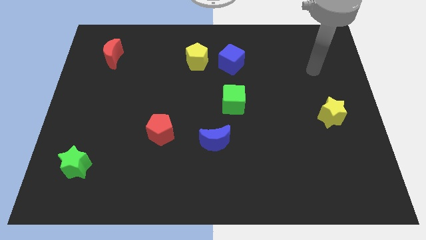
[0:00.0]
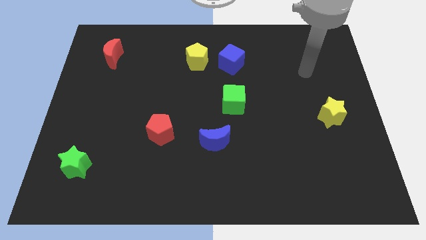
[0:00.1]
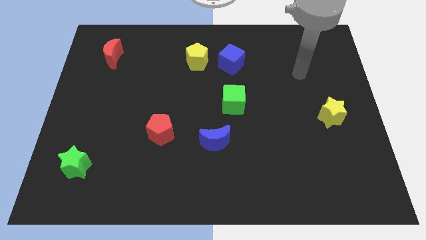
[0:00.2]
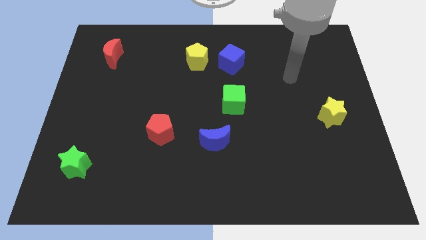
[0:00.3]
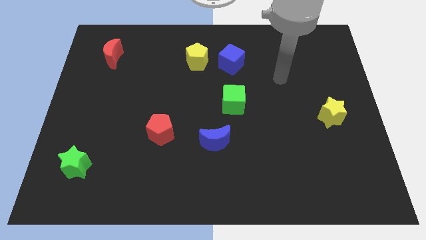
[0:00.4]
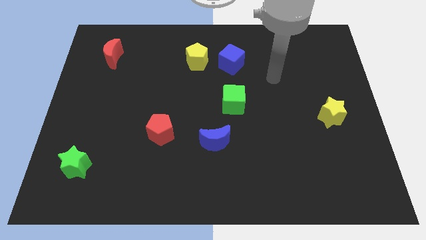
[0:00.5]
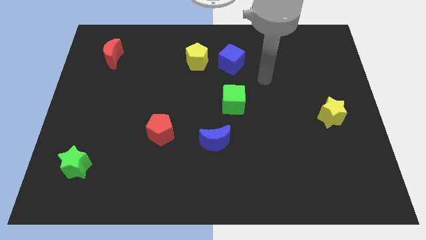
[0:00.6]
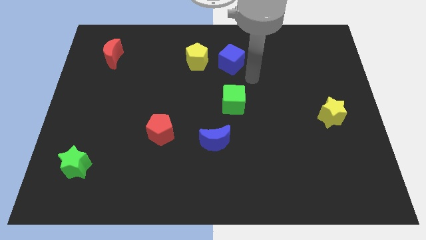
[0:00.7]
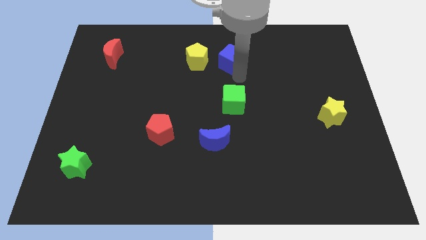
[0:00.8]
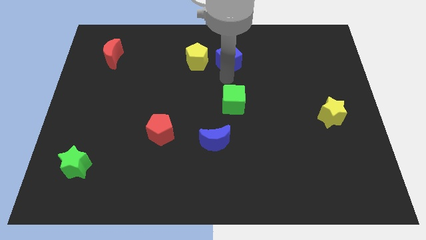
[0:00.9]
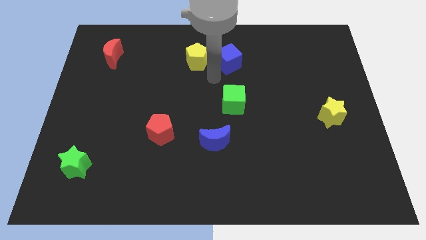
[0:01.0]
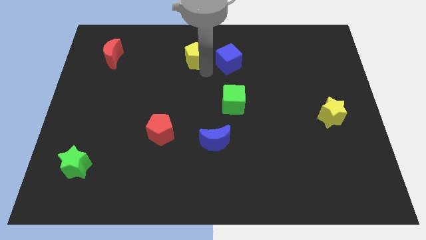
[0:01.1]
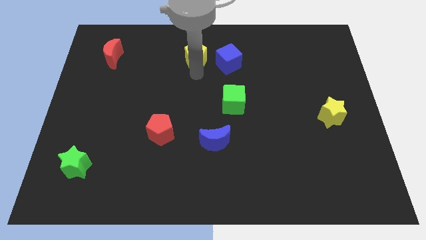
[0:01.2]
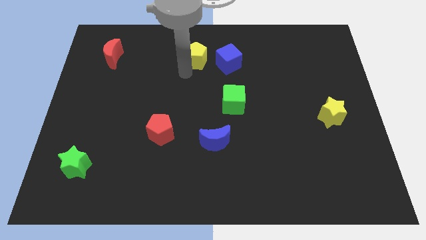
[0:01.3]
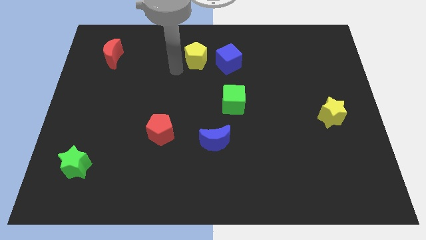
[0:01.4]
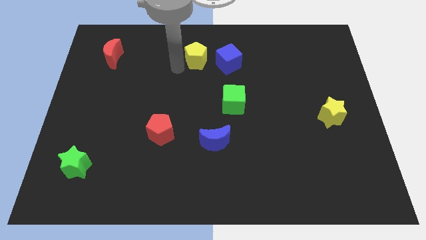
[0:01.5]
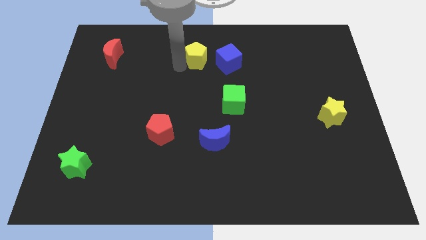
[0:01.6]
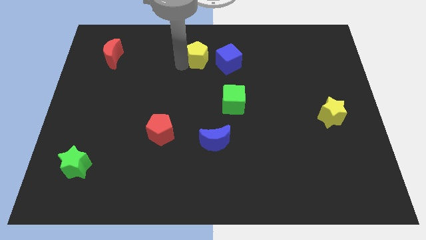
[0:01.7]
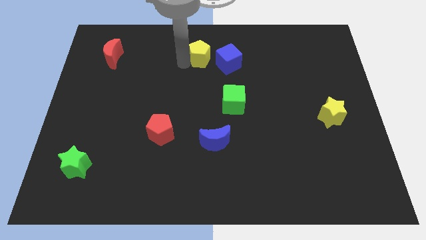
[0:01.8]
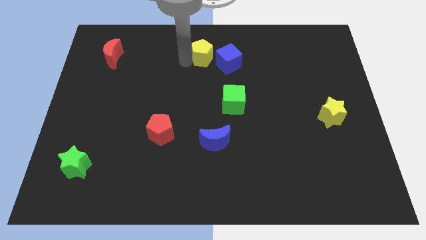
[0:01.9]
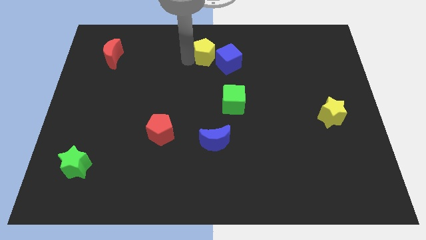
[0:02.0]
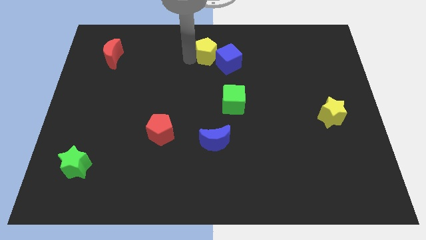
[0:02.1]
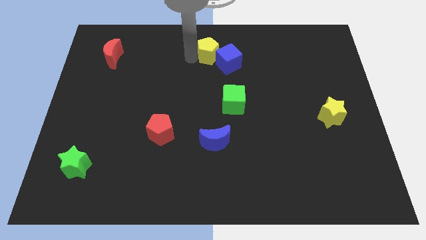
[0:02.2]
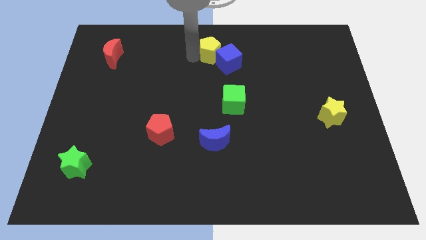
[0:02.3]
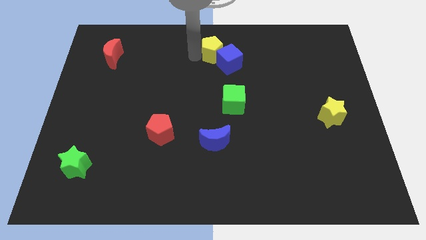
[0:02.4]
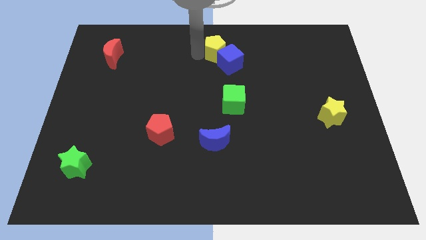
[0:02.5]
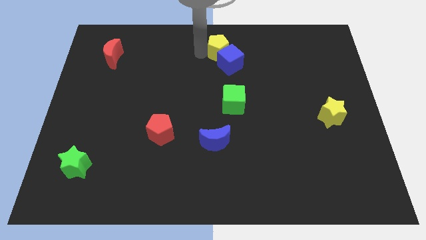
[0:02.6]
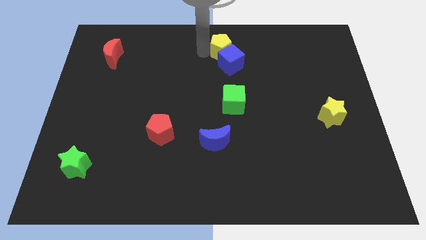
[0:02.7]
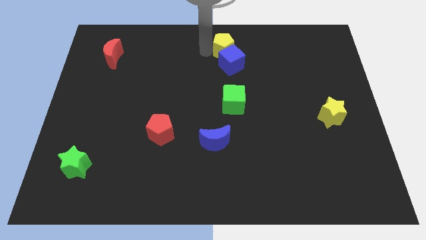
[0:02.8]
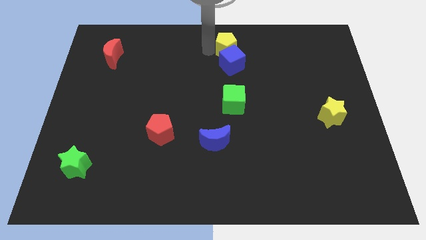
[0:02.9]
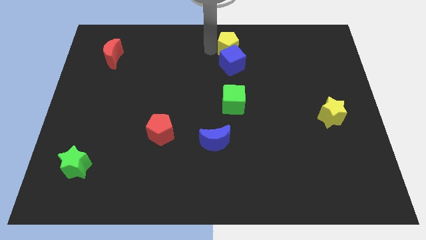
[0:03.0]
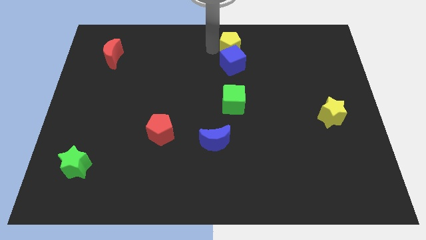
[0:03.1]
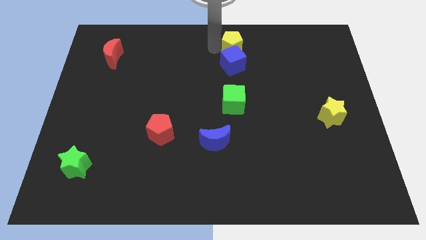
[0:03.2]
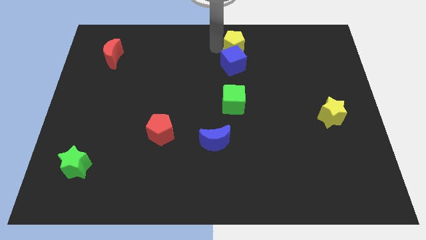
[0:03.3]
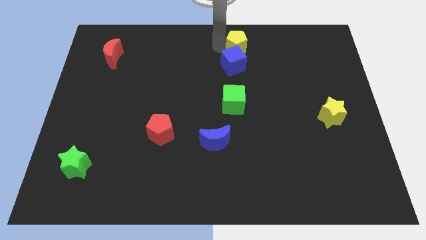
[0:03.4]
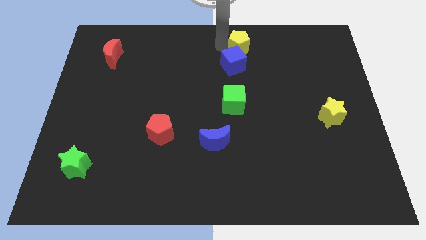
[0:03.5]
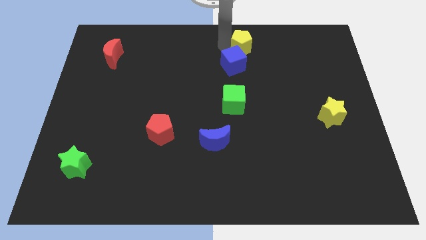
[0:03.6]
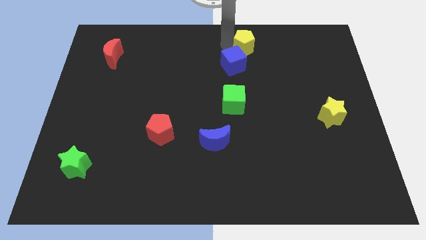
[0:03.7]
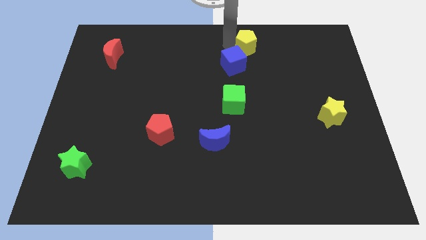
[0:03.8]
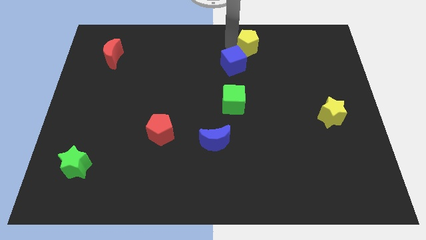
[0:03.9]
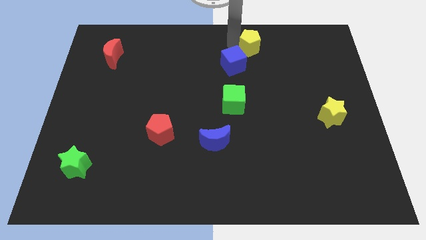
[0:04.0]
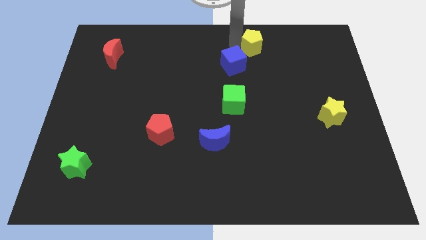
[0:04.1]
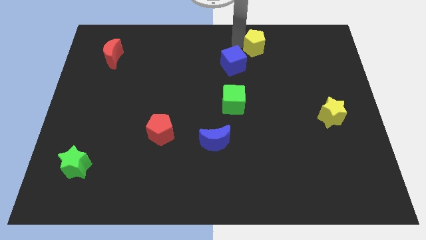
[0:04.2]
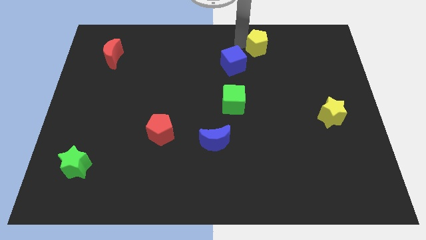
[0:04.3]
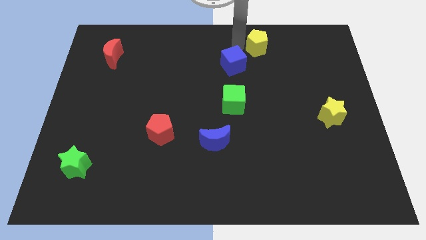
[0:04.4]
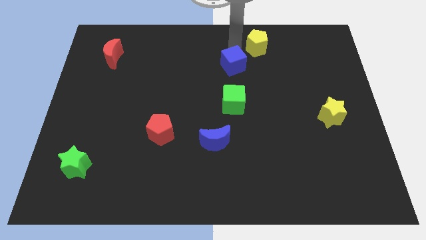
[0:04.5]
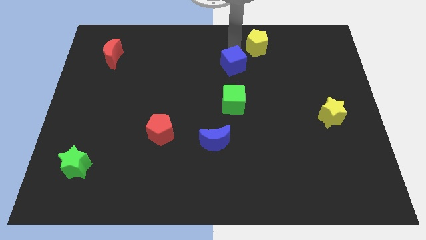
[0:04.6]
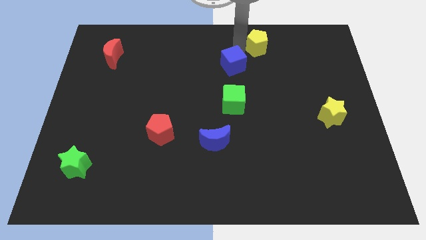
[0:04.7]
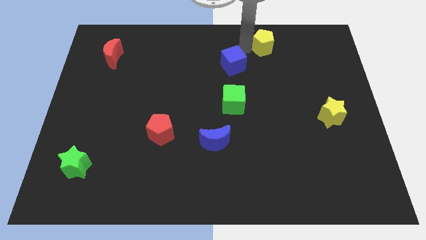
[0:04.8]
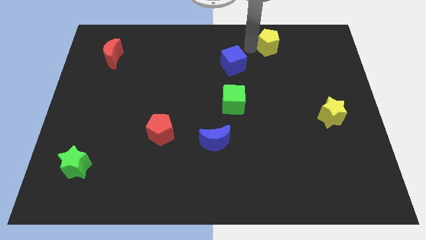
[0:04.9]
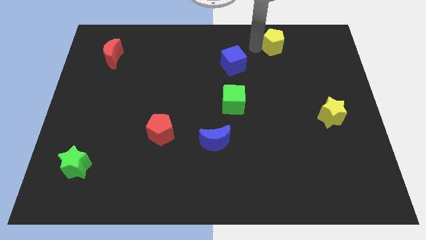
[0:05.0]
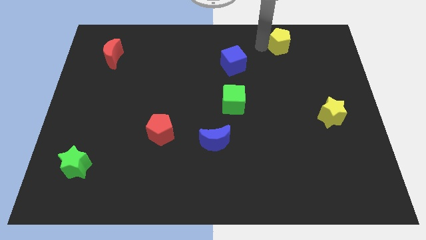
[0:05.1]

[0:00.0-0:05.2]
slide the yellow pentagon to the right

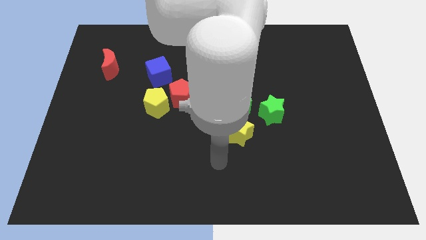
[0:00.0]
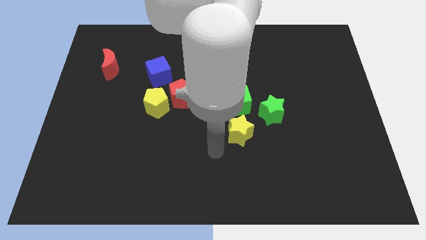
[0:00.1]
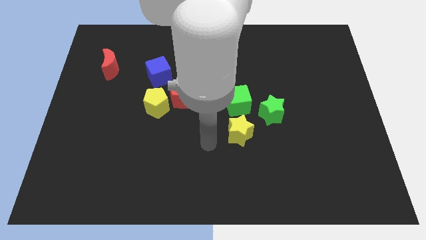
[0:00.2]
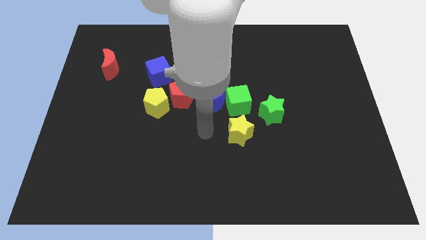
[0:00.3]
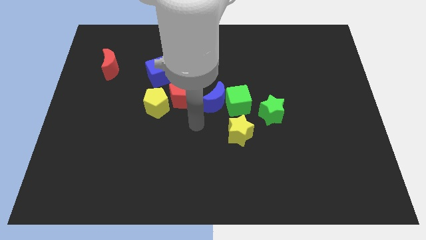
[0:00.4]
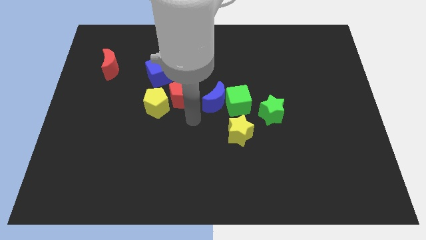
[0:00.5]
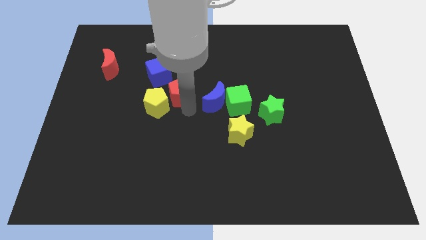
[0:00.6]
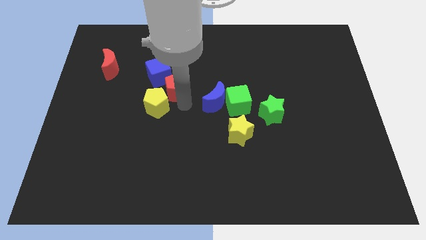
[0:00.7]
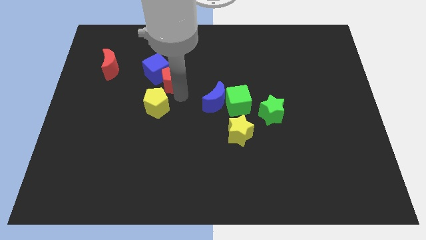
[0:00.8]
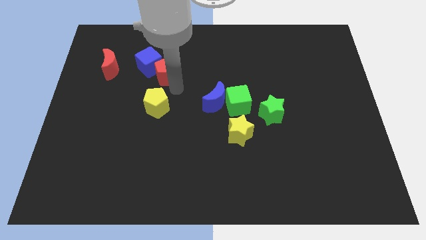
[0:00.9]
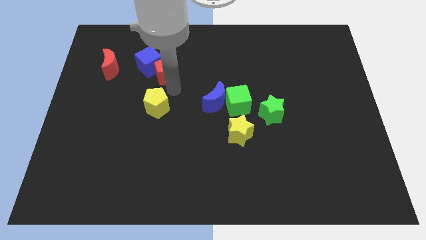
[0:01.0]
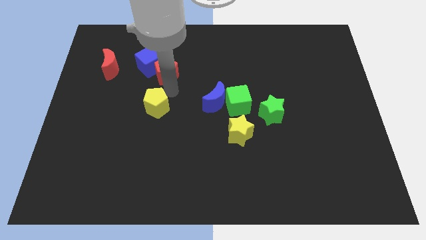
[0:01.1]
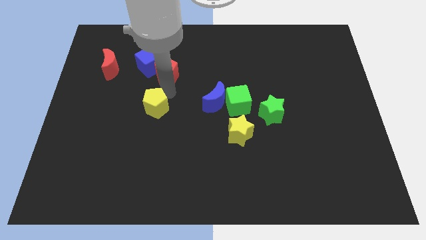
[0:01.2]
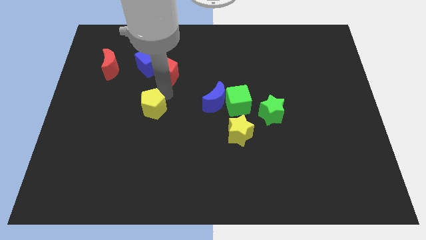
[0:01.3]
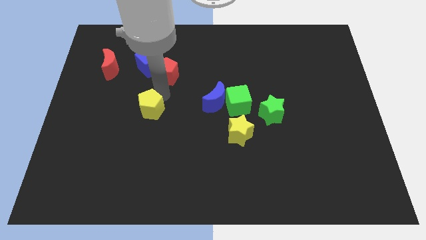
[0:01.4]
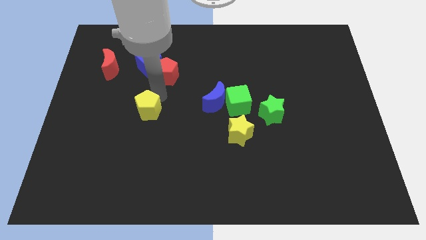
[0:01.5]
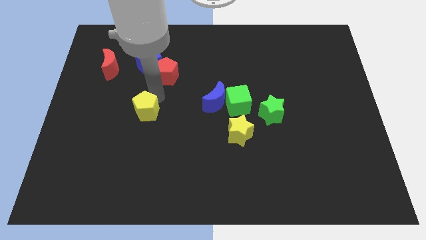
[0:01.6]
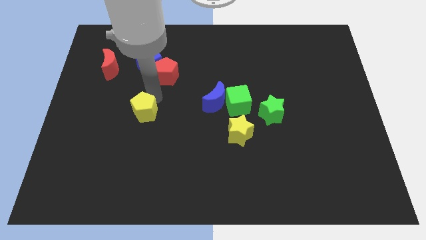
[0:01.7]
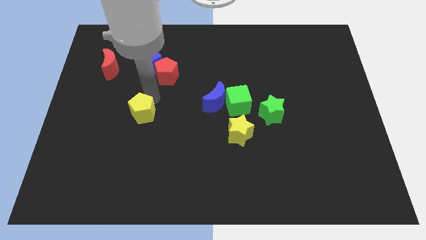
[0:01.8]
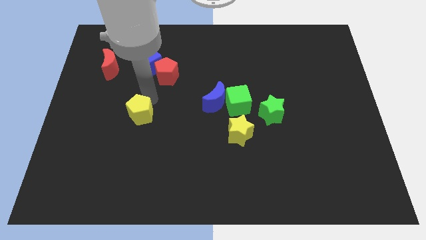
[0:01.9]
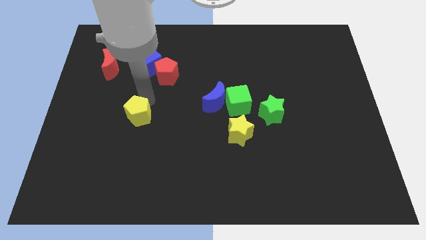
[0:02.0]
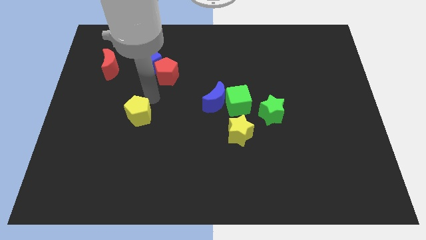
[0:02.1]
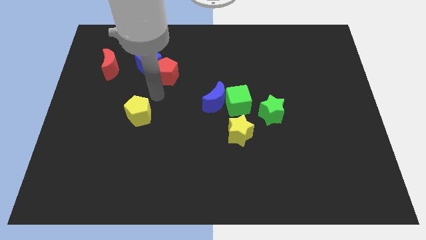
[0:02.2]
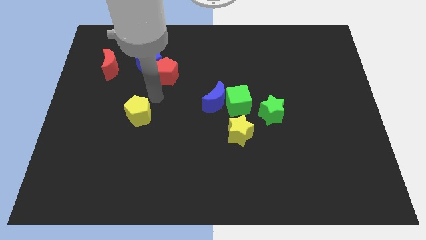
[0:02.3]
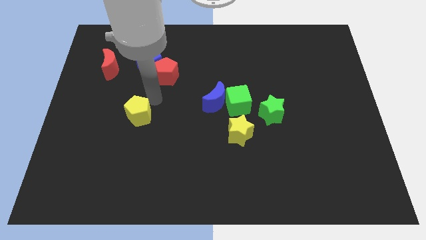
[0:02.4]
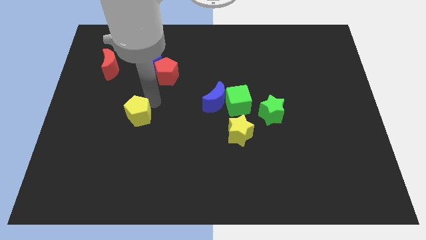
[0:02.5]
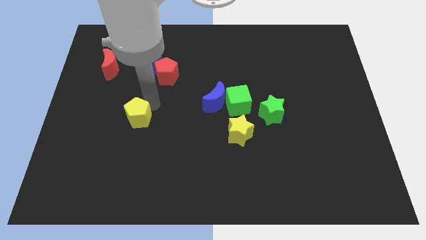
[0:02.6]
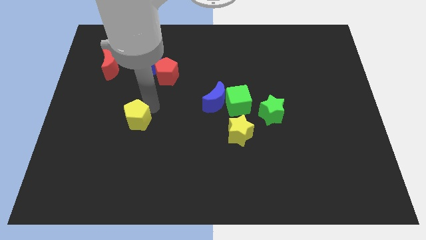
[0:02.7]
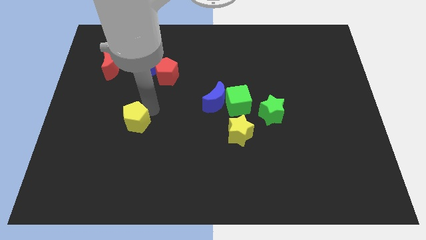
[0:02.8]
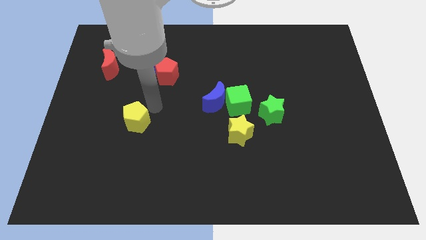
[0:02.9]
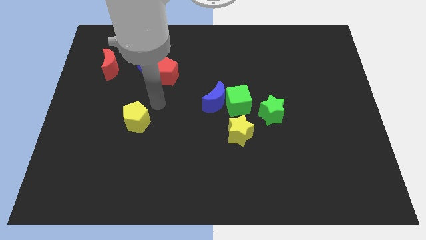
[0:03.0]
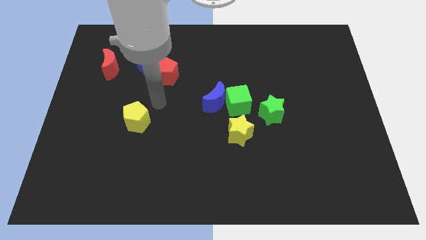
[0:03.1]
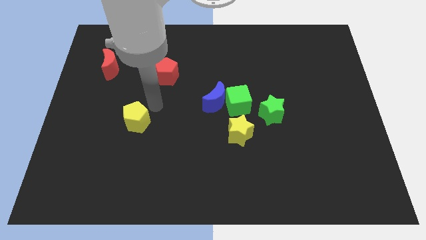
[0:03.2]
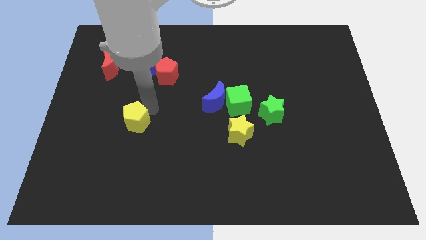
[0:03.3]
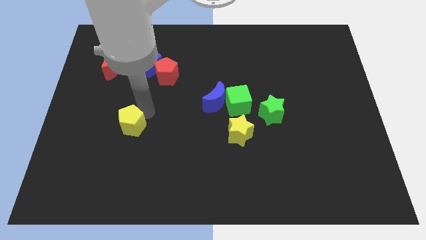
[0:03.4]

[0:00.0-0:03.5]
slightly push the yellow pentagon downwards and left diagonally
